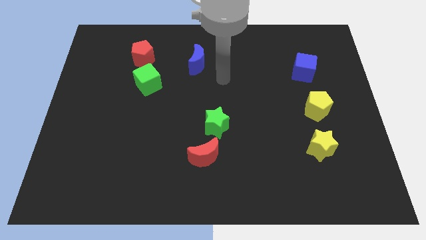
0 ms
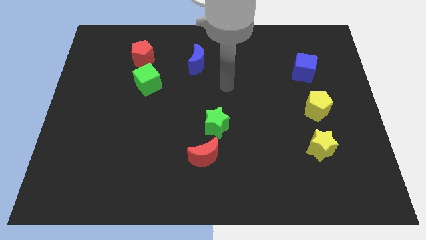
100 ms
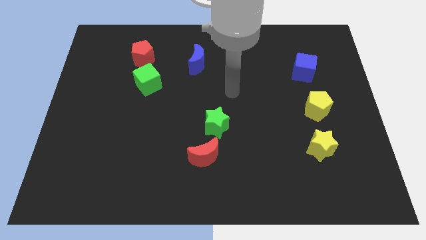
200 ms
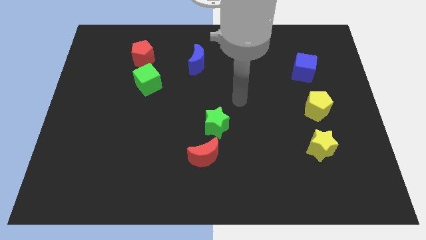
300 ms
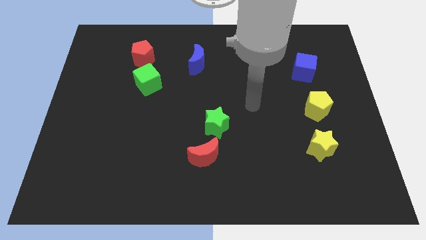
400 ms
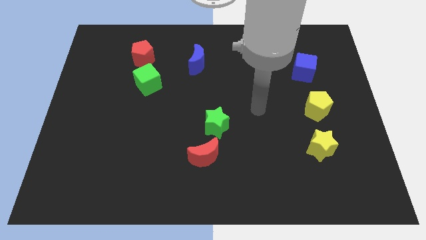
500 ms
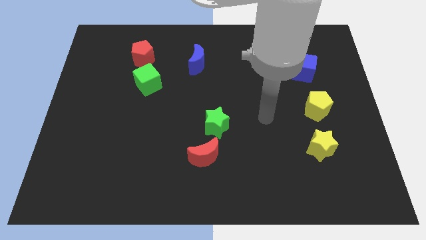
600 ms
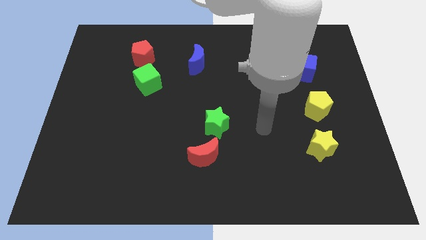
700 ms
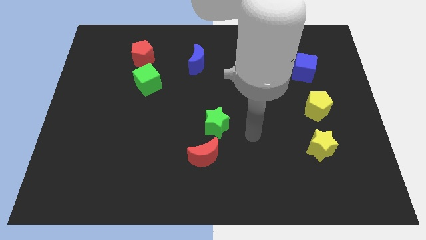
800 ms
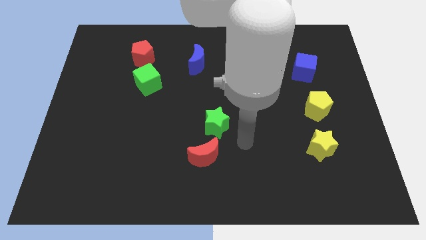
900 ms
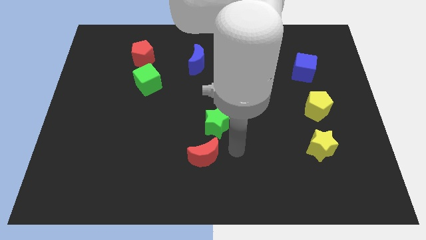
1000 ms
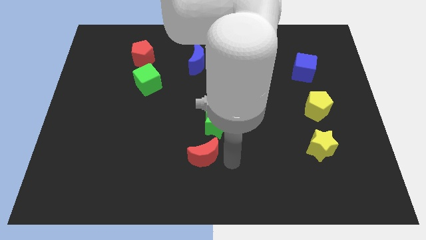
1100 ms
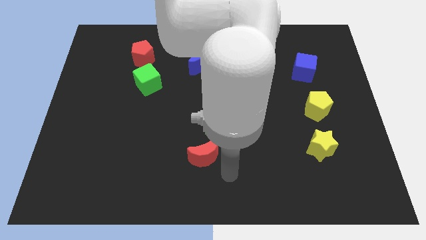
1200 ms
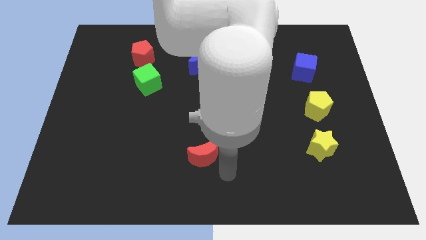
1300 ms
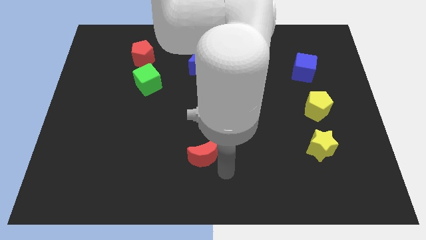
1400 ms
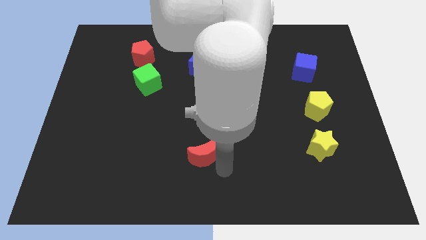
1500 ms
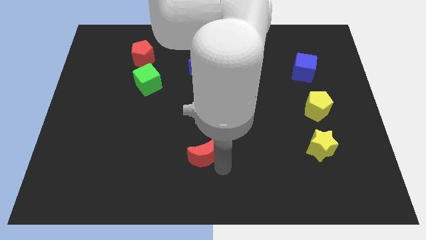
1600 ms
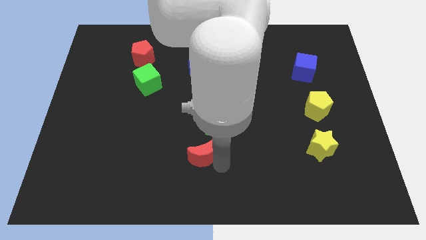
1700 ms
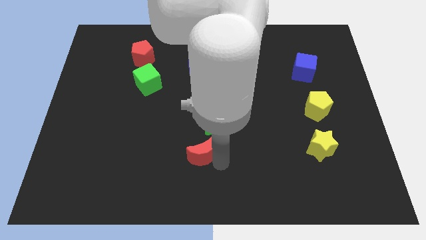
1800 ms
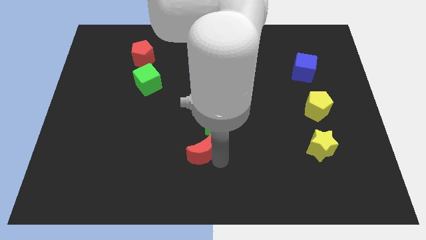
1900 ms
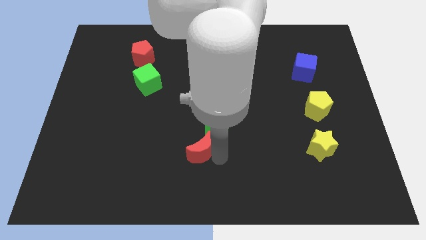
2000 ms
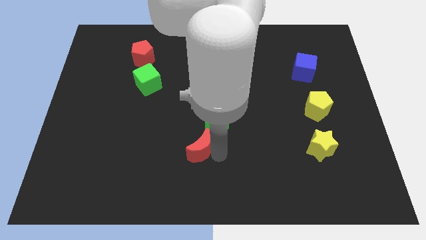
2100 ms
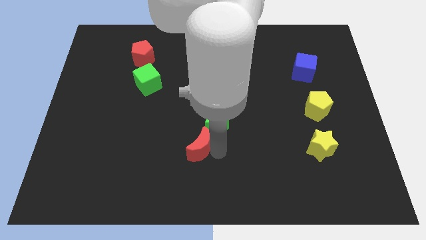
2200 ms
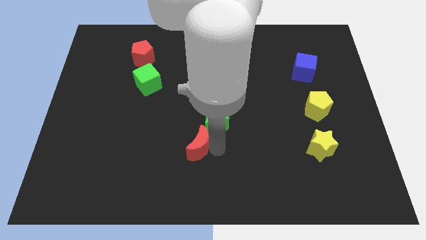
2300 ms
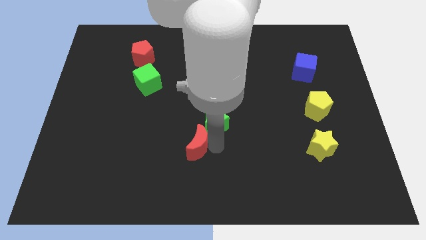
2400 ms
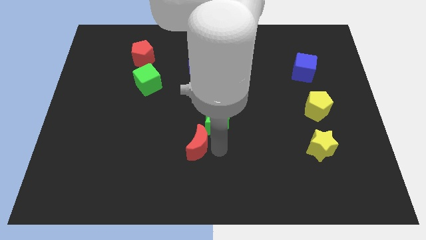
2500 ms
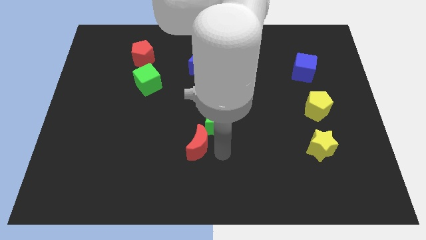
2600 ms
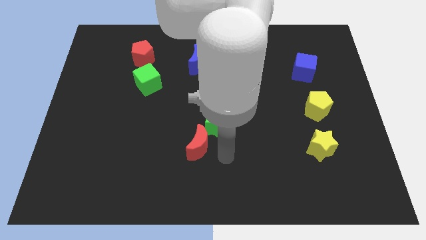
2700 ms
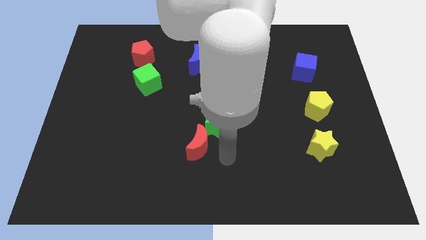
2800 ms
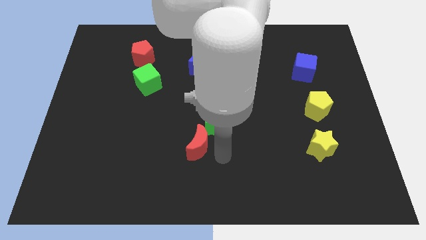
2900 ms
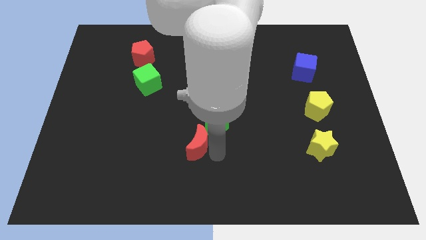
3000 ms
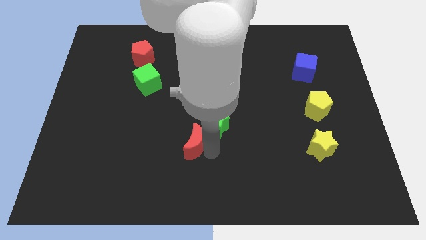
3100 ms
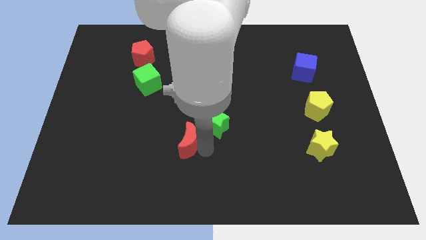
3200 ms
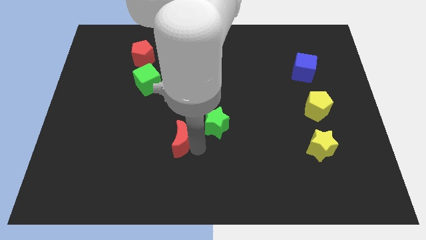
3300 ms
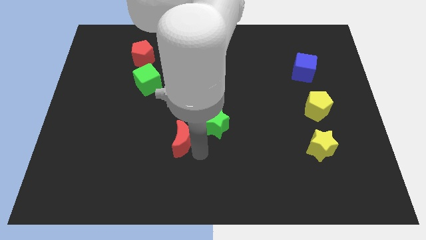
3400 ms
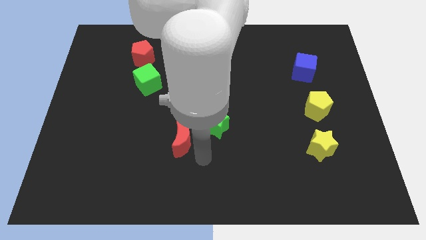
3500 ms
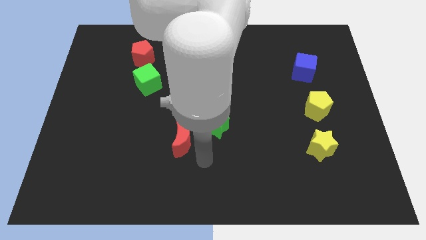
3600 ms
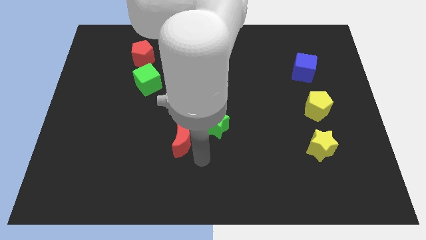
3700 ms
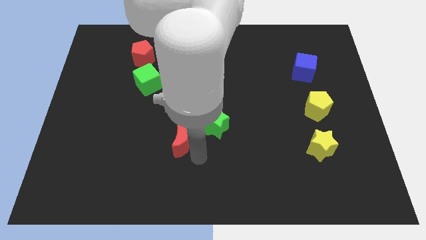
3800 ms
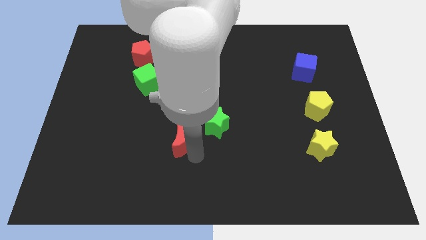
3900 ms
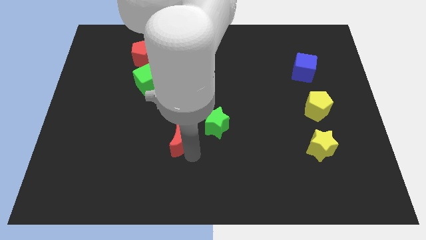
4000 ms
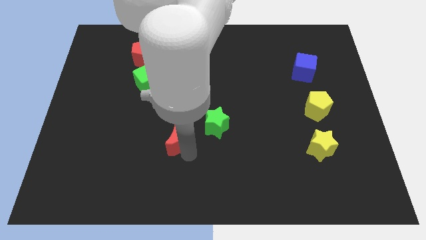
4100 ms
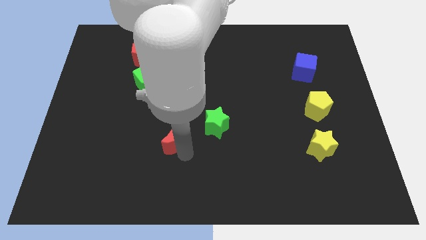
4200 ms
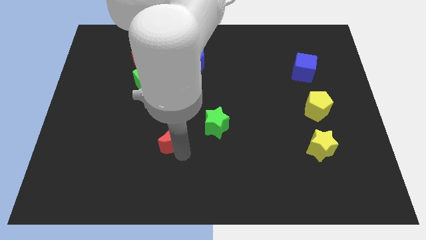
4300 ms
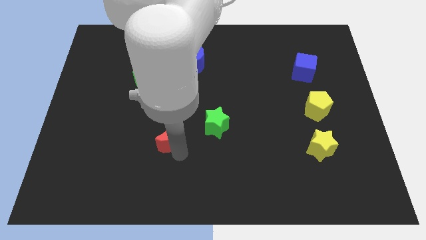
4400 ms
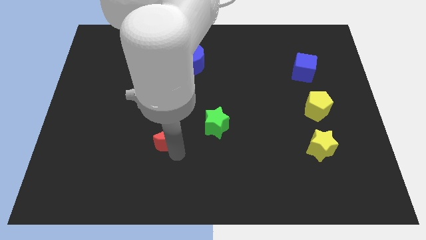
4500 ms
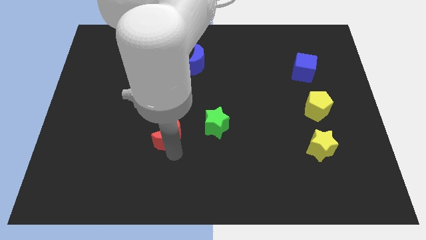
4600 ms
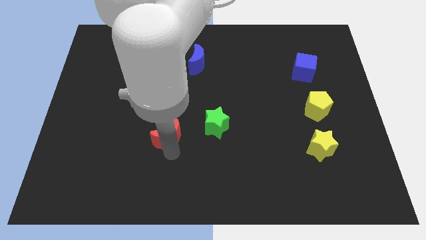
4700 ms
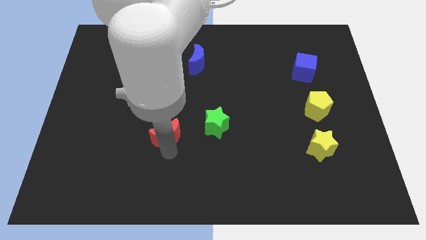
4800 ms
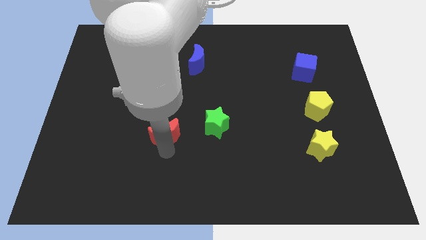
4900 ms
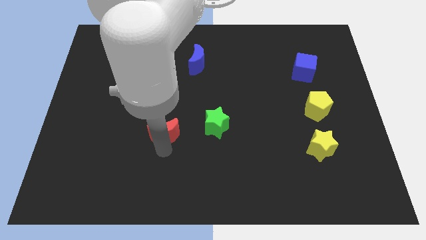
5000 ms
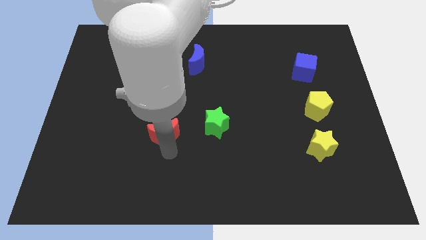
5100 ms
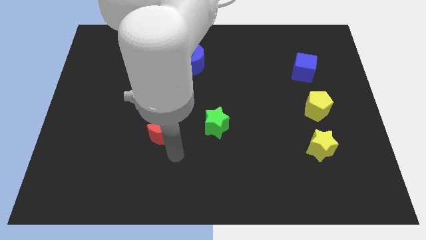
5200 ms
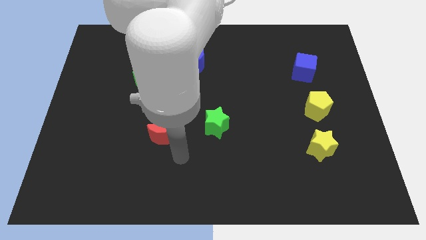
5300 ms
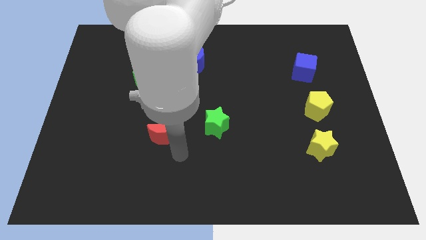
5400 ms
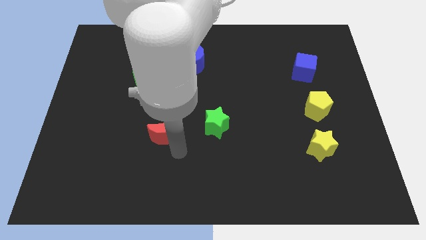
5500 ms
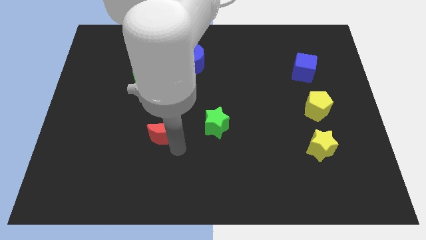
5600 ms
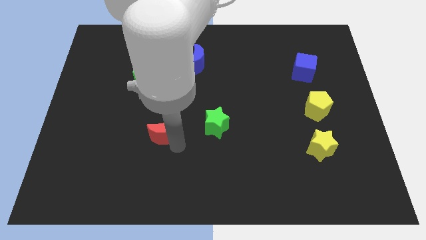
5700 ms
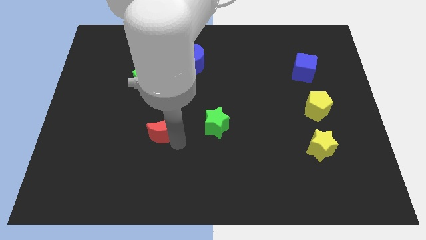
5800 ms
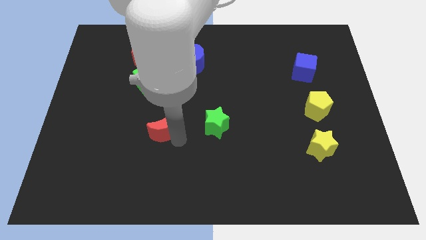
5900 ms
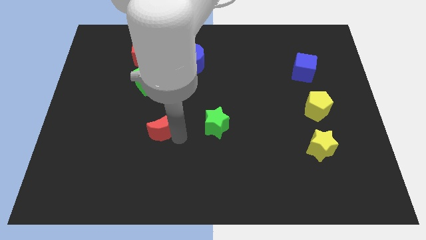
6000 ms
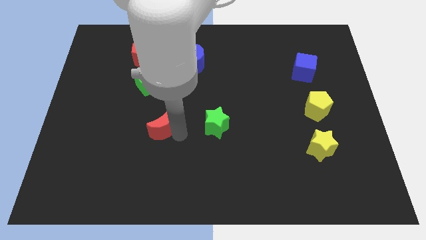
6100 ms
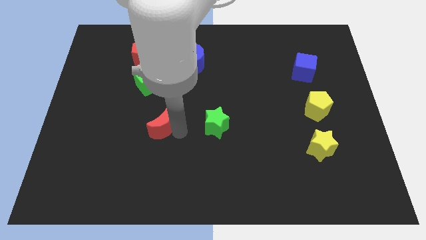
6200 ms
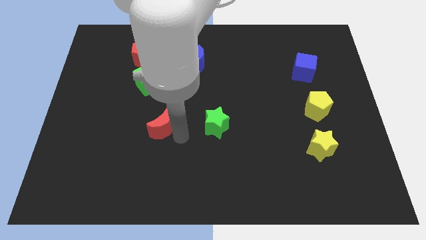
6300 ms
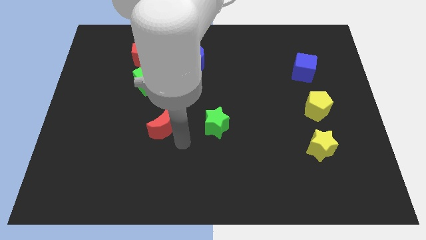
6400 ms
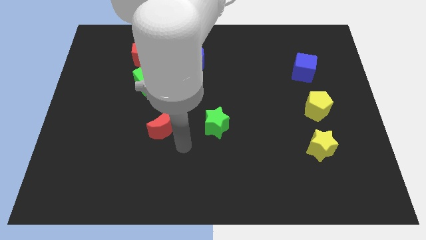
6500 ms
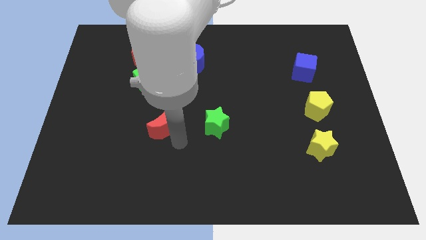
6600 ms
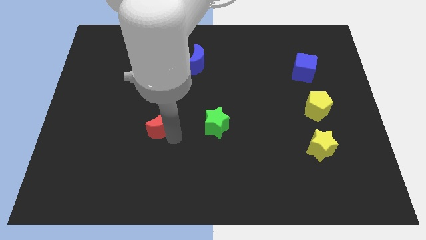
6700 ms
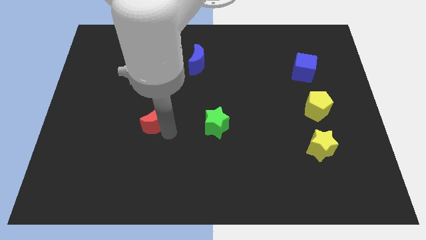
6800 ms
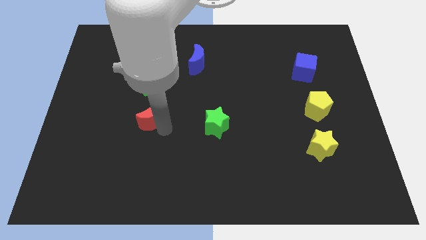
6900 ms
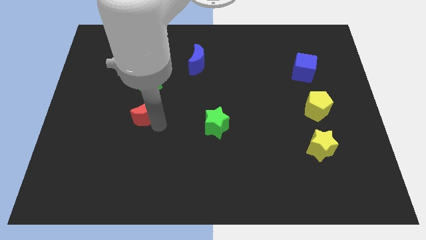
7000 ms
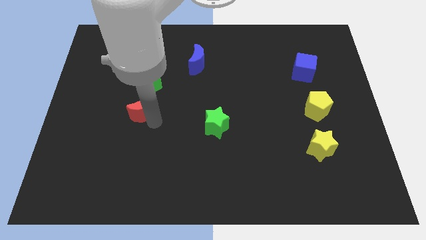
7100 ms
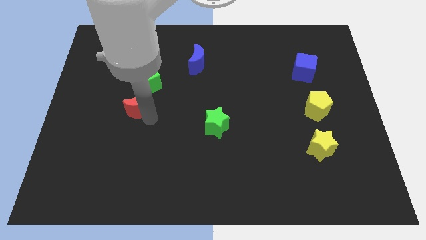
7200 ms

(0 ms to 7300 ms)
move the red moon diagonally upwards and left

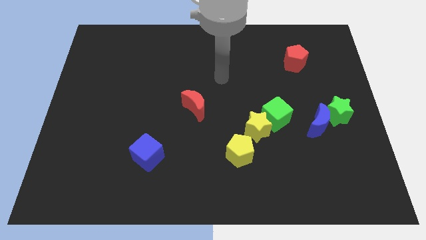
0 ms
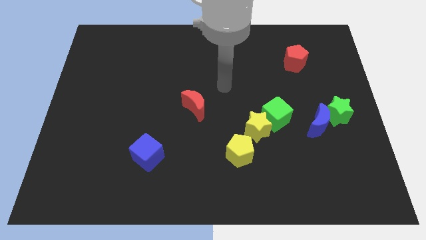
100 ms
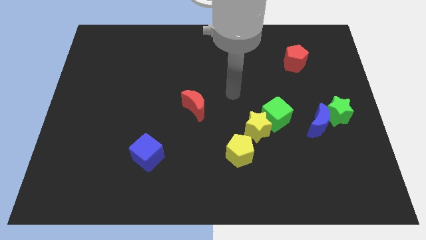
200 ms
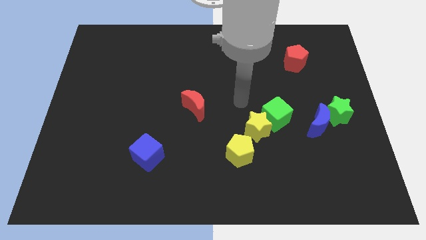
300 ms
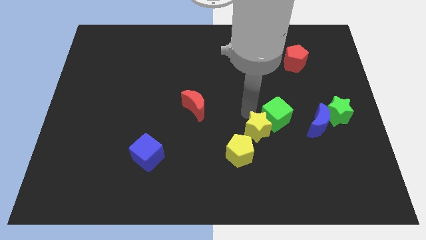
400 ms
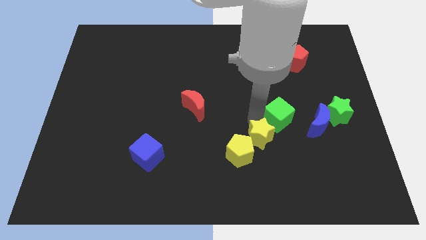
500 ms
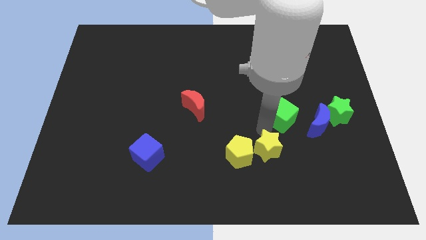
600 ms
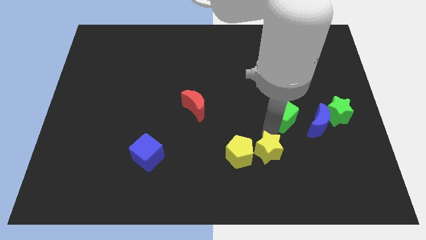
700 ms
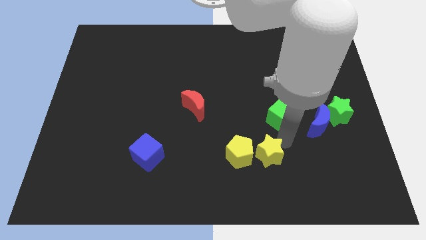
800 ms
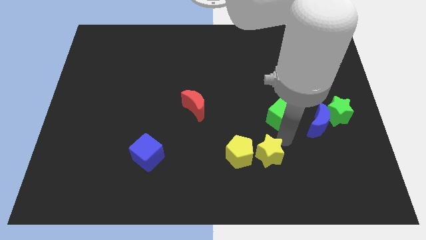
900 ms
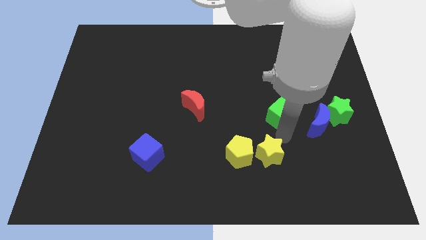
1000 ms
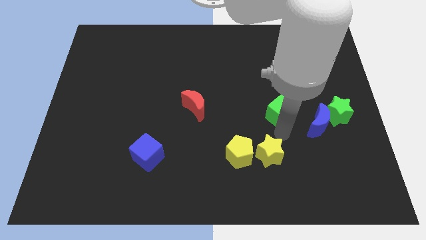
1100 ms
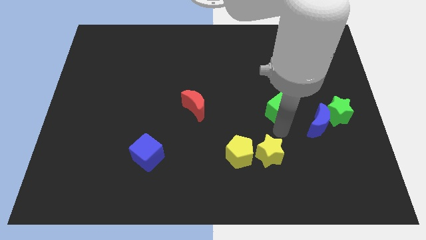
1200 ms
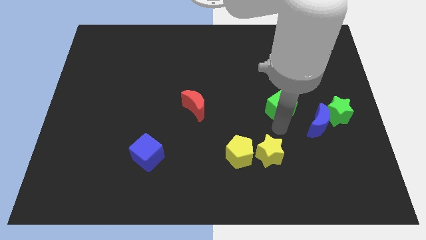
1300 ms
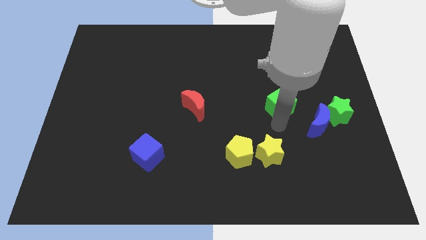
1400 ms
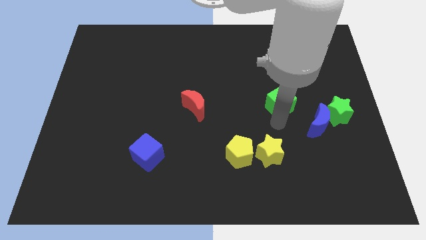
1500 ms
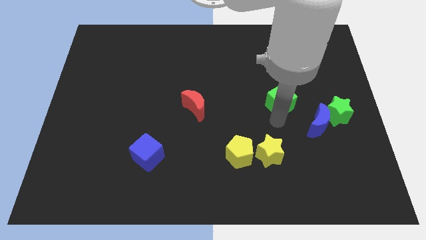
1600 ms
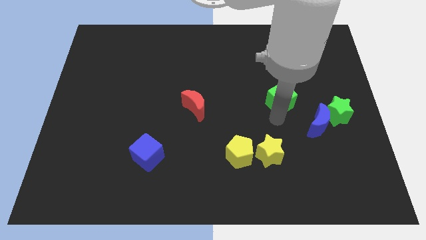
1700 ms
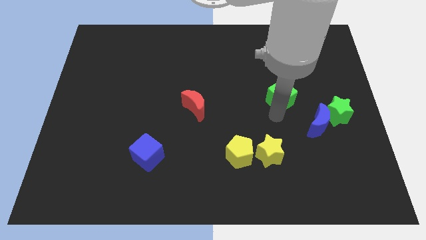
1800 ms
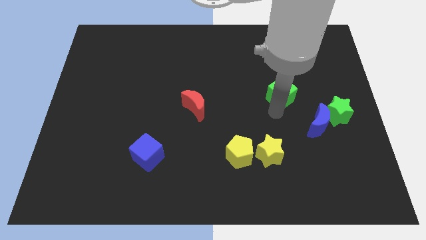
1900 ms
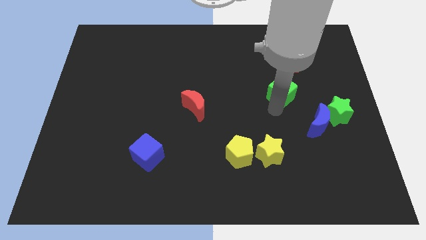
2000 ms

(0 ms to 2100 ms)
slightly push the green cube upwards
